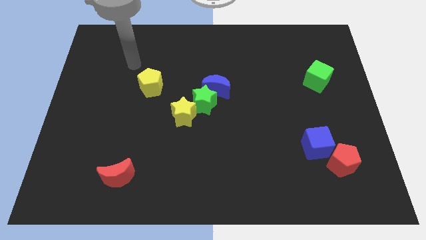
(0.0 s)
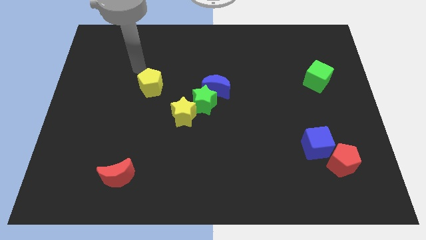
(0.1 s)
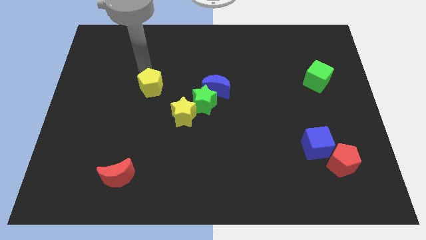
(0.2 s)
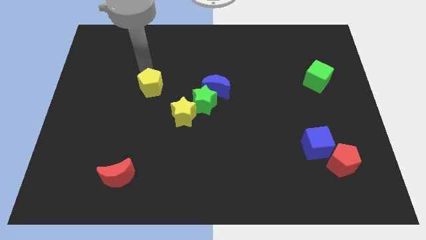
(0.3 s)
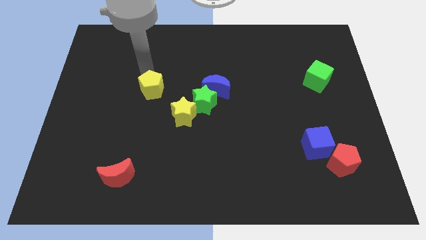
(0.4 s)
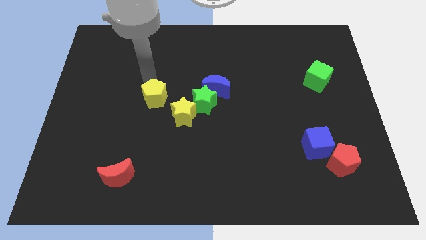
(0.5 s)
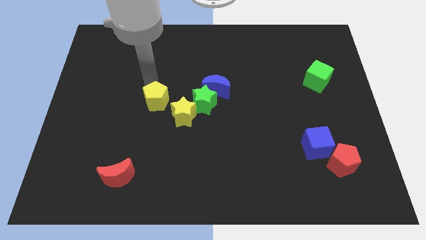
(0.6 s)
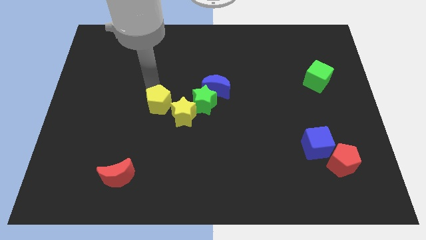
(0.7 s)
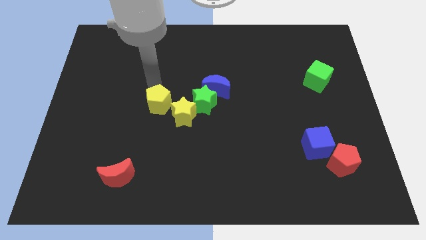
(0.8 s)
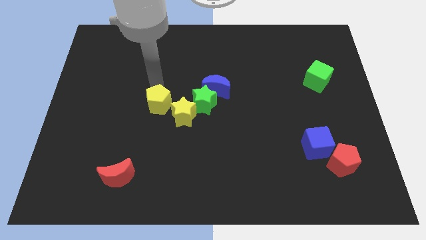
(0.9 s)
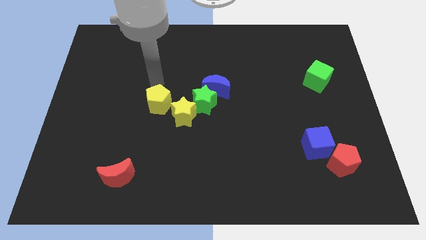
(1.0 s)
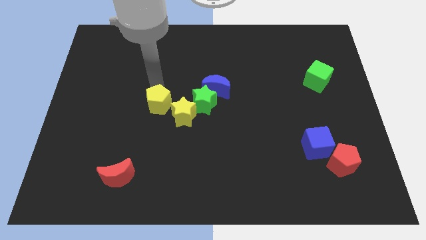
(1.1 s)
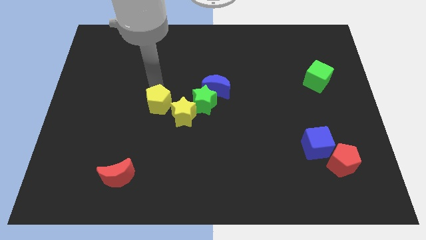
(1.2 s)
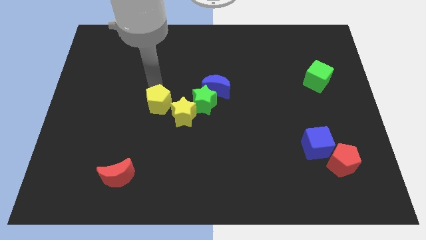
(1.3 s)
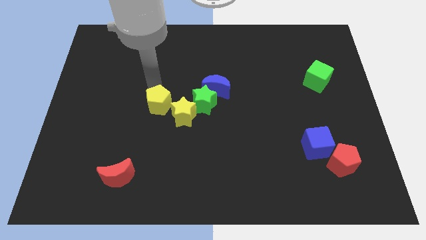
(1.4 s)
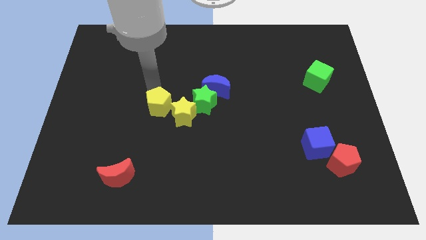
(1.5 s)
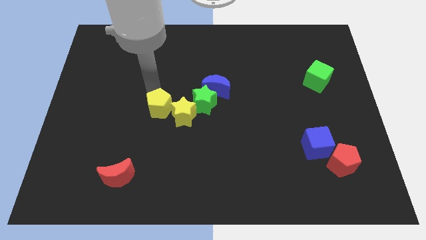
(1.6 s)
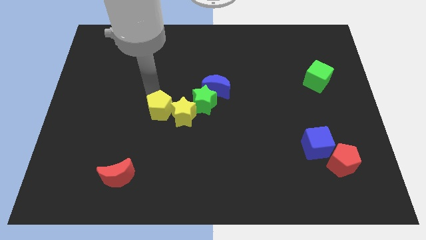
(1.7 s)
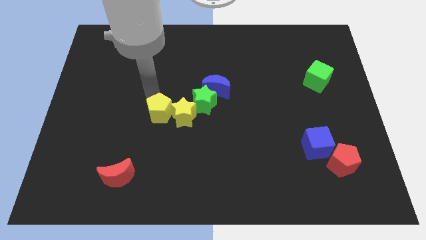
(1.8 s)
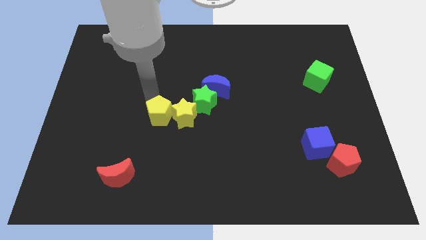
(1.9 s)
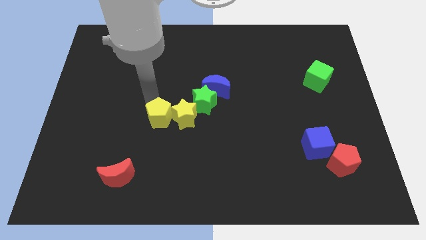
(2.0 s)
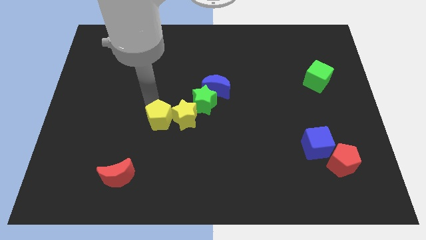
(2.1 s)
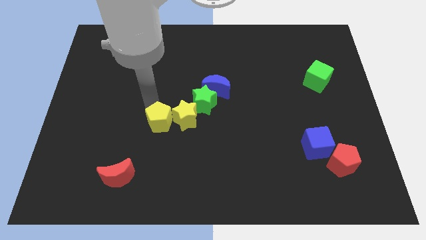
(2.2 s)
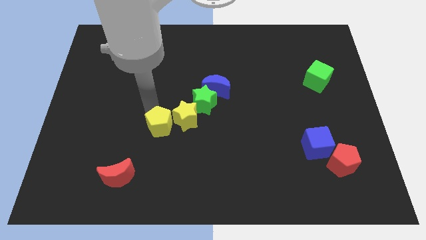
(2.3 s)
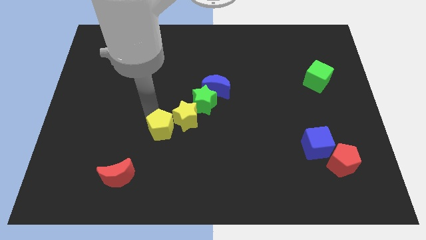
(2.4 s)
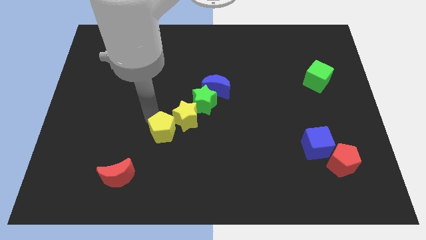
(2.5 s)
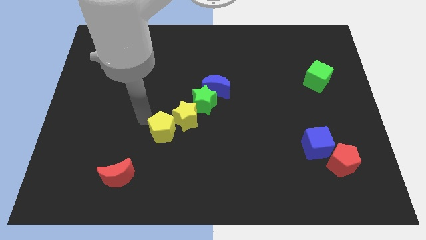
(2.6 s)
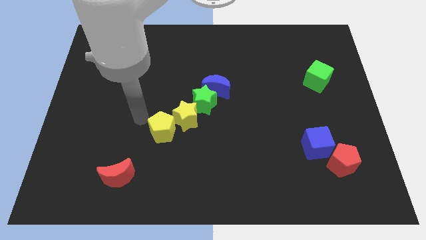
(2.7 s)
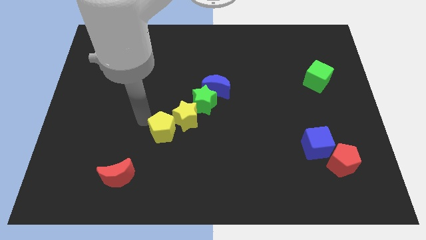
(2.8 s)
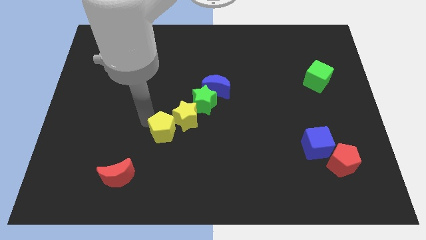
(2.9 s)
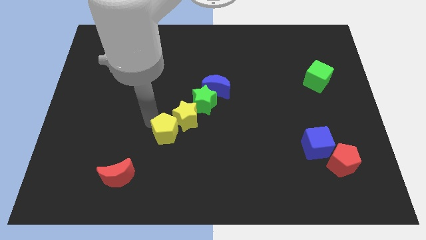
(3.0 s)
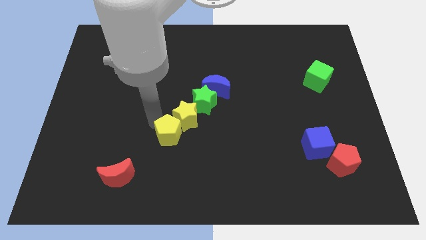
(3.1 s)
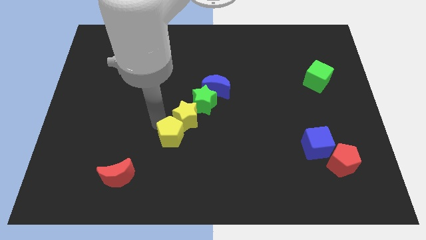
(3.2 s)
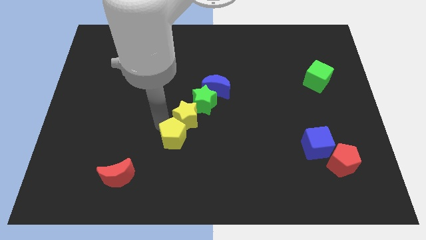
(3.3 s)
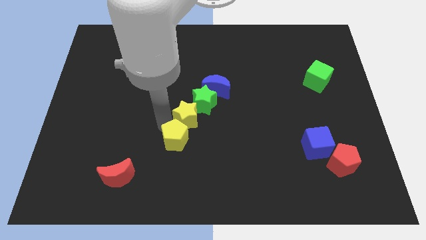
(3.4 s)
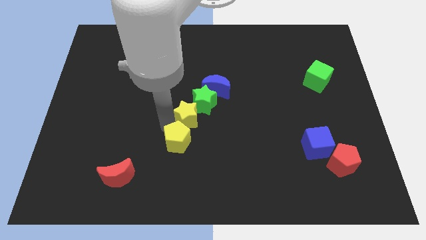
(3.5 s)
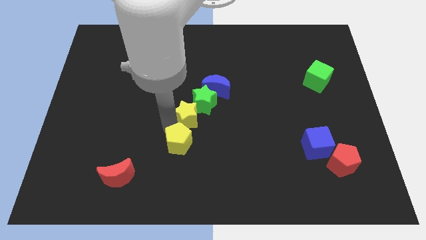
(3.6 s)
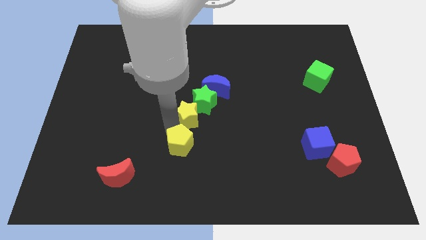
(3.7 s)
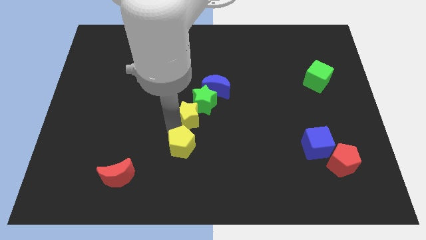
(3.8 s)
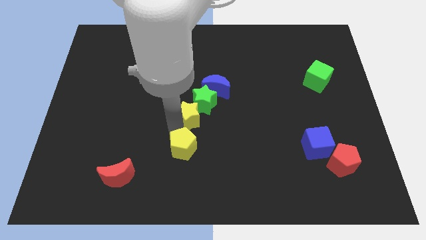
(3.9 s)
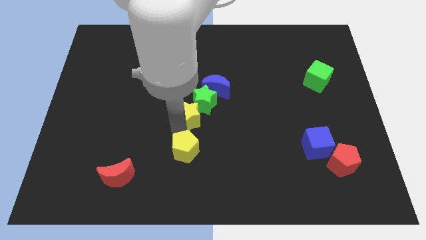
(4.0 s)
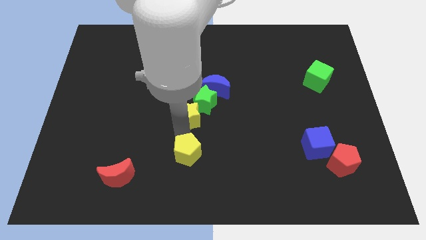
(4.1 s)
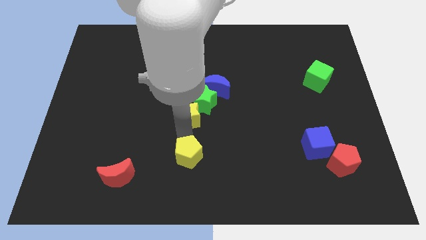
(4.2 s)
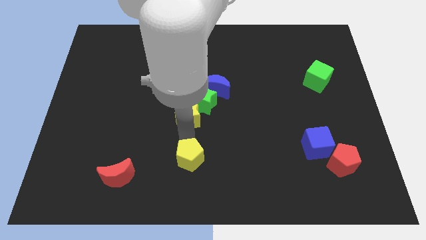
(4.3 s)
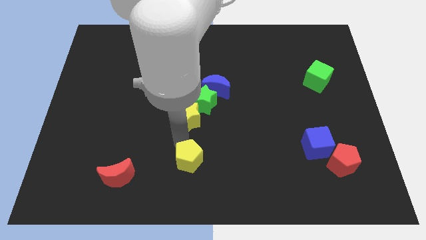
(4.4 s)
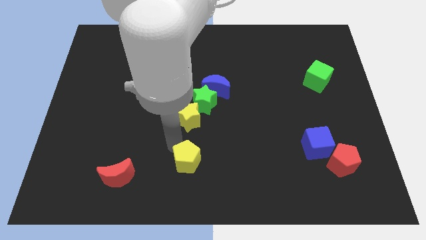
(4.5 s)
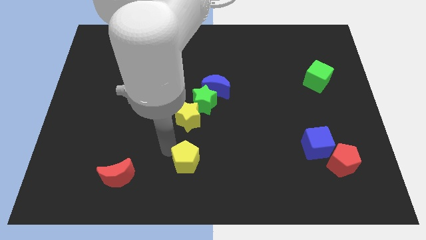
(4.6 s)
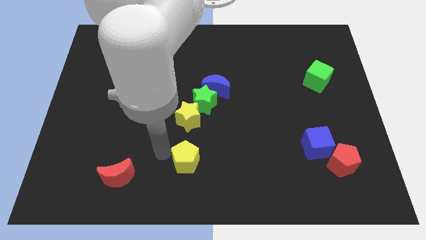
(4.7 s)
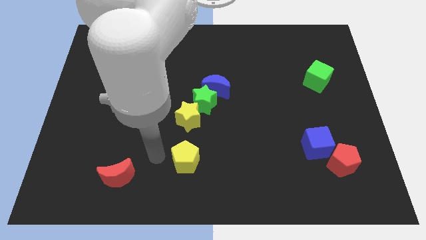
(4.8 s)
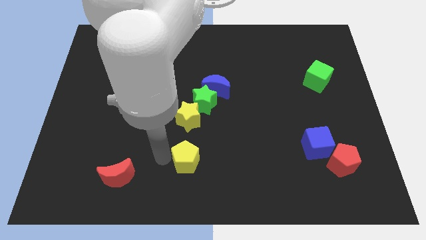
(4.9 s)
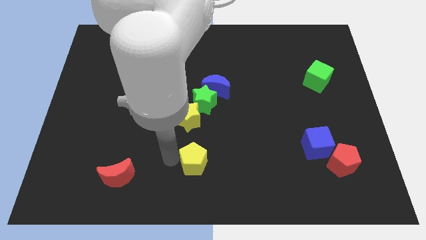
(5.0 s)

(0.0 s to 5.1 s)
slide the yellow pentagon downwards and right

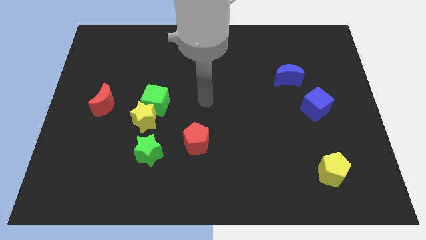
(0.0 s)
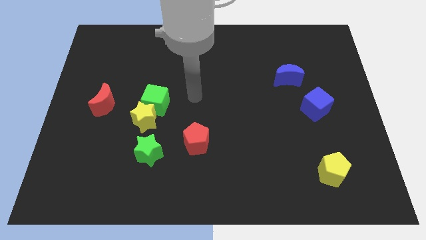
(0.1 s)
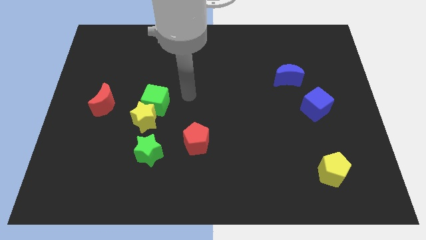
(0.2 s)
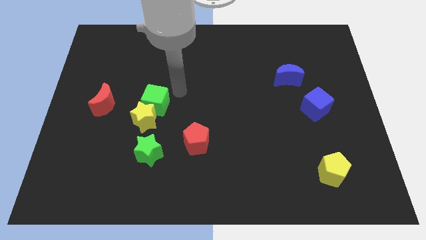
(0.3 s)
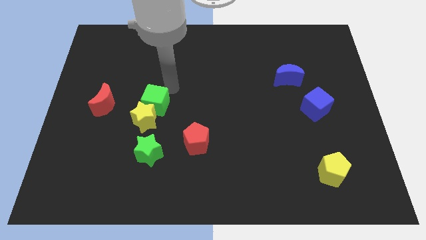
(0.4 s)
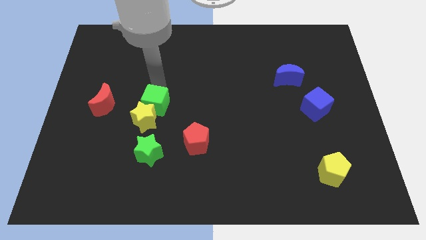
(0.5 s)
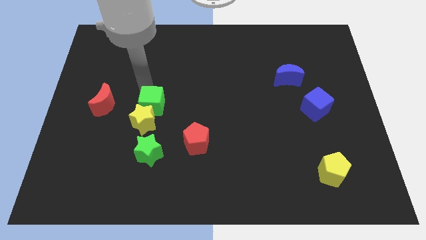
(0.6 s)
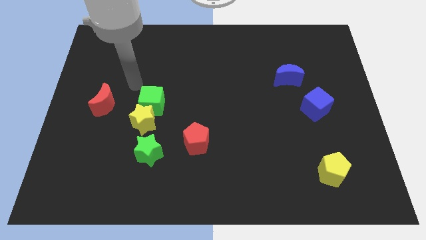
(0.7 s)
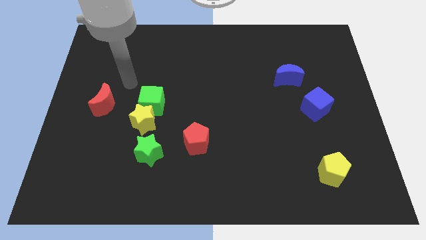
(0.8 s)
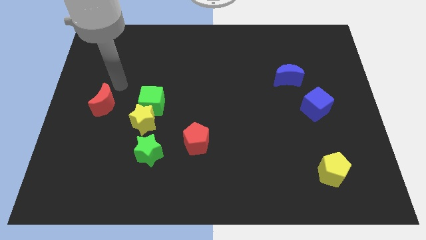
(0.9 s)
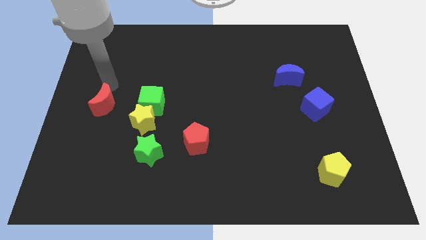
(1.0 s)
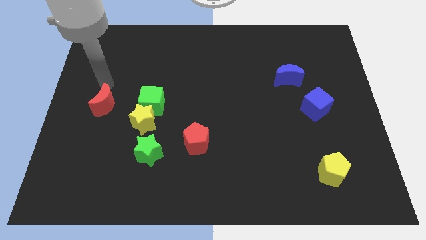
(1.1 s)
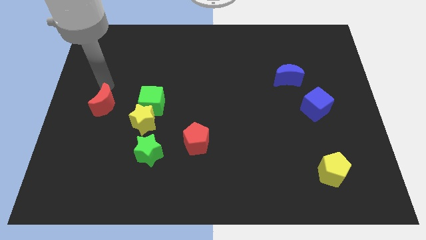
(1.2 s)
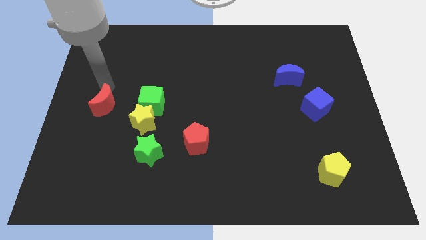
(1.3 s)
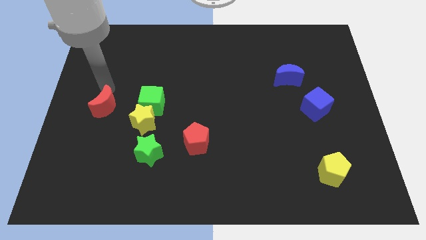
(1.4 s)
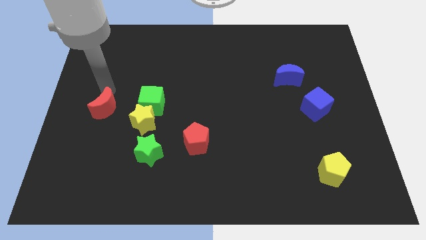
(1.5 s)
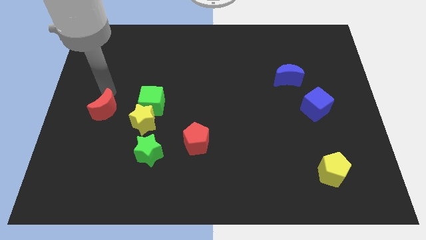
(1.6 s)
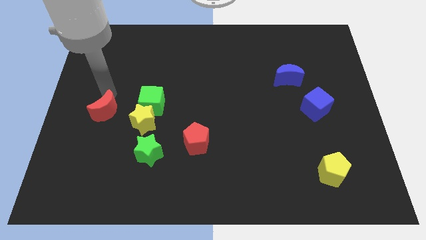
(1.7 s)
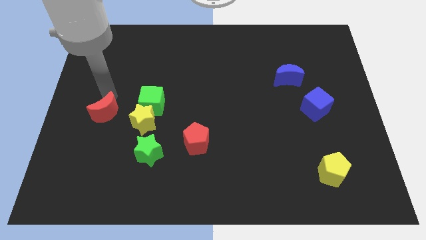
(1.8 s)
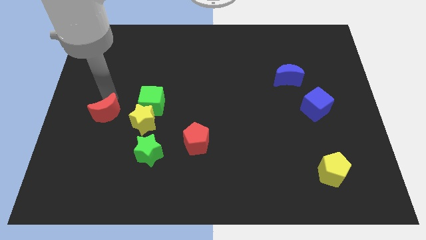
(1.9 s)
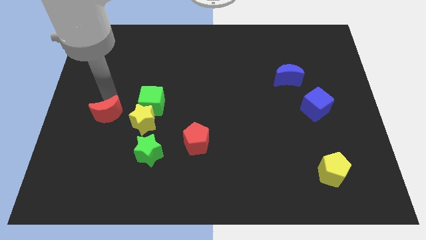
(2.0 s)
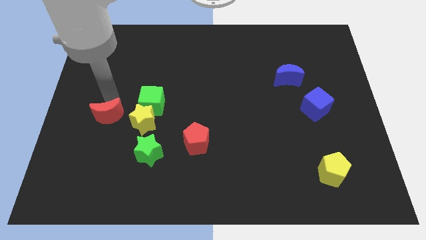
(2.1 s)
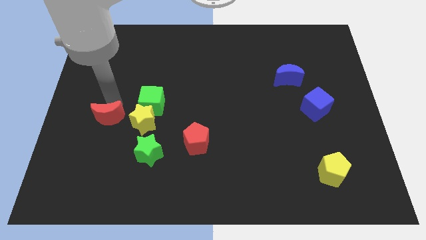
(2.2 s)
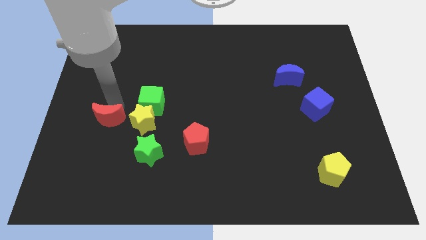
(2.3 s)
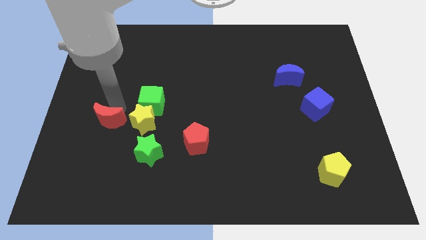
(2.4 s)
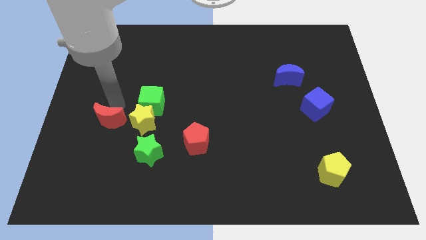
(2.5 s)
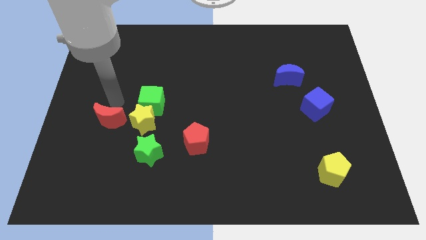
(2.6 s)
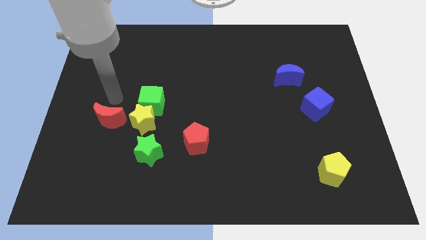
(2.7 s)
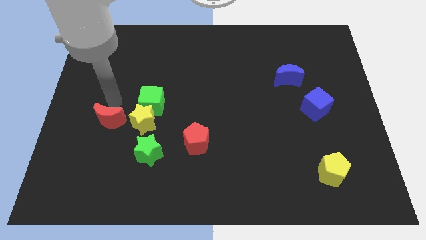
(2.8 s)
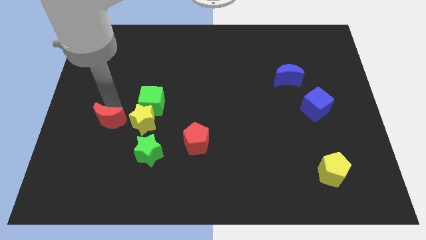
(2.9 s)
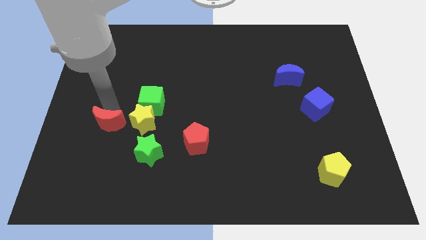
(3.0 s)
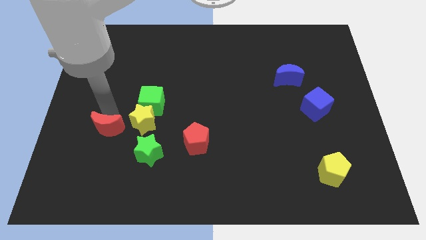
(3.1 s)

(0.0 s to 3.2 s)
slightly push the red moon downwards
